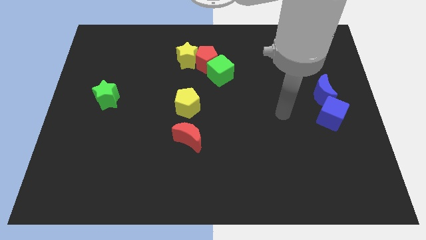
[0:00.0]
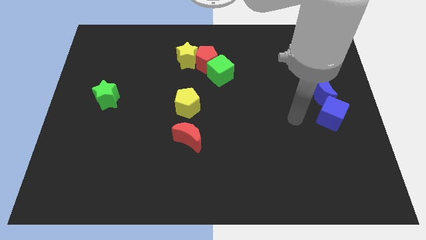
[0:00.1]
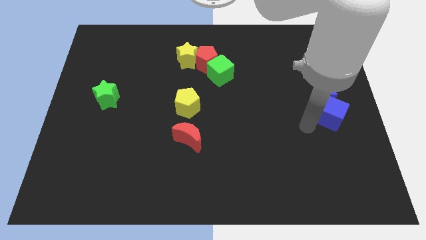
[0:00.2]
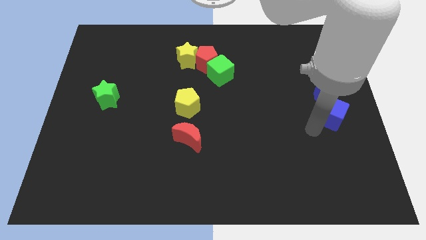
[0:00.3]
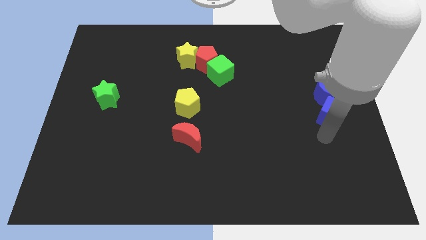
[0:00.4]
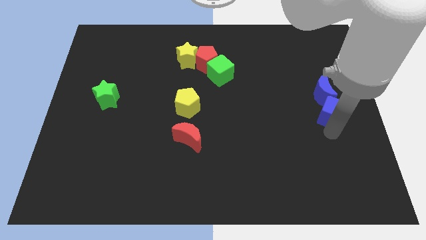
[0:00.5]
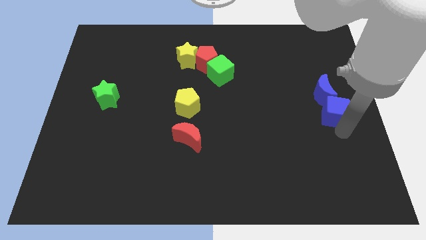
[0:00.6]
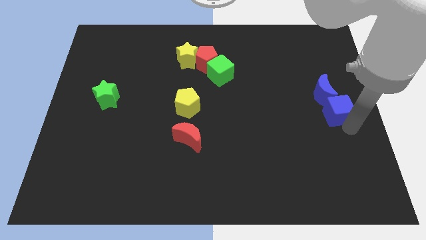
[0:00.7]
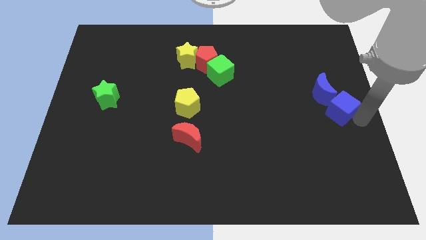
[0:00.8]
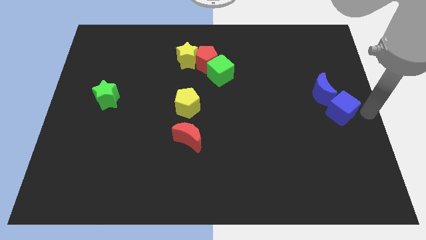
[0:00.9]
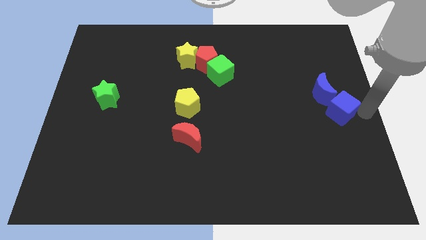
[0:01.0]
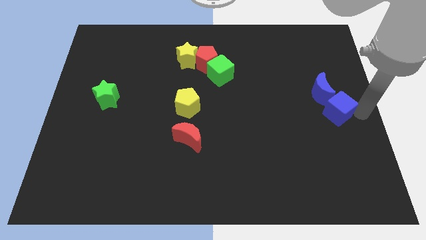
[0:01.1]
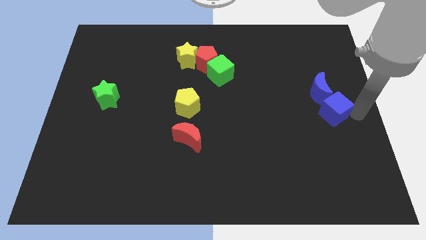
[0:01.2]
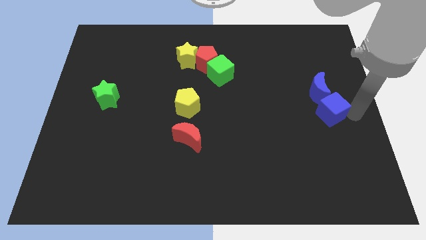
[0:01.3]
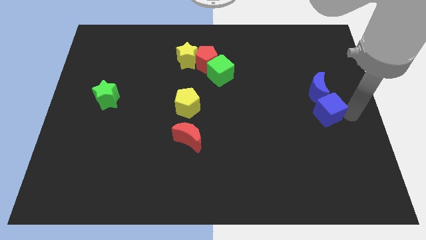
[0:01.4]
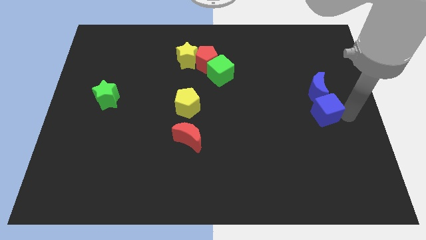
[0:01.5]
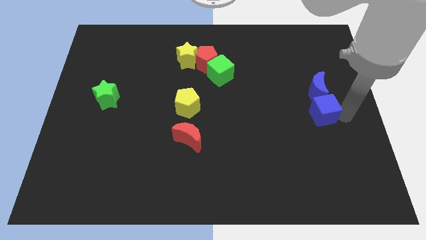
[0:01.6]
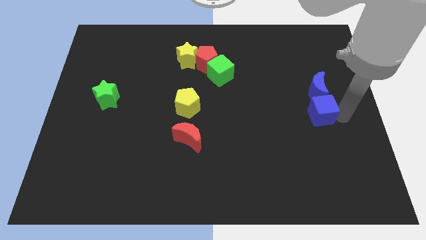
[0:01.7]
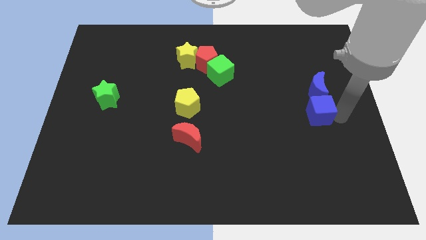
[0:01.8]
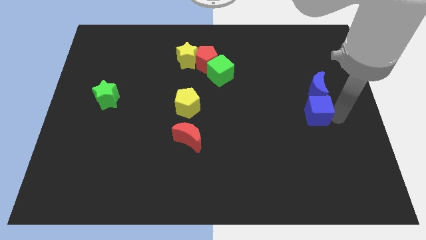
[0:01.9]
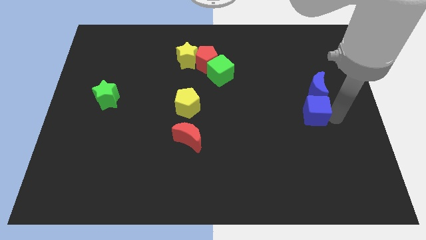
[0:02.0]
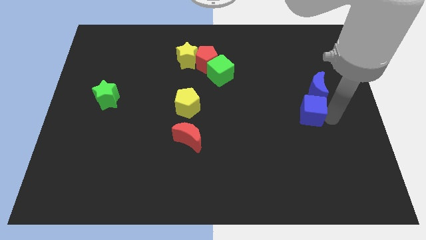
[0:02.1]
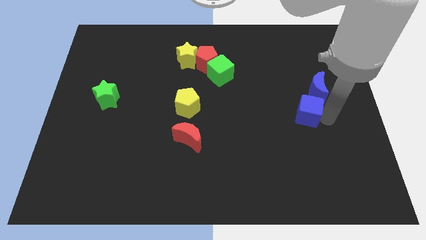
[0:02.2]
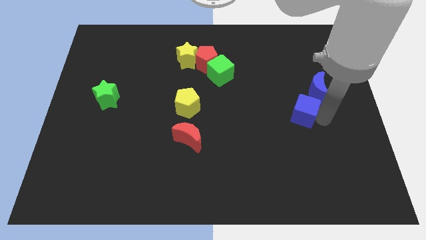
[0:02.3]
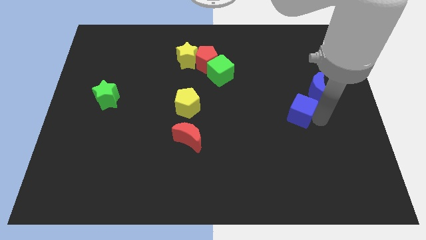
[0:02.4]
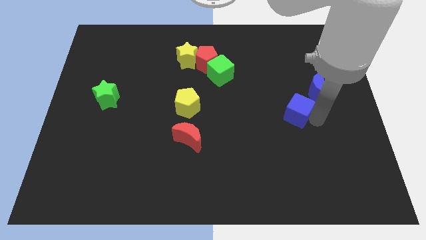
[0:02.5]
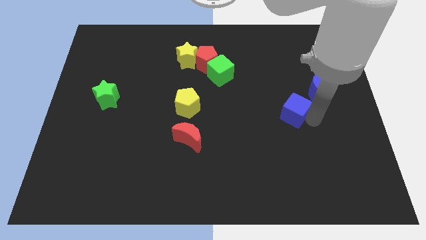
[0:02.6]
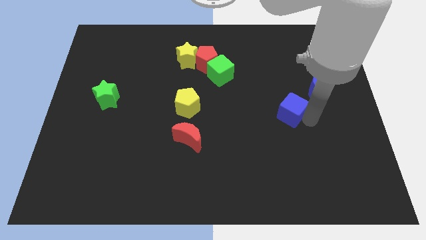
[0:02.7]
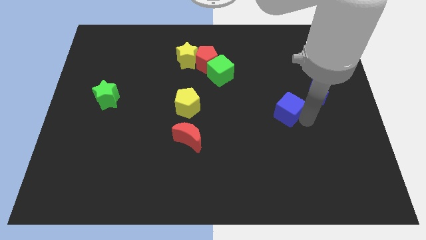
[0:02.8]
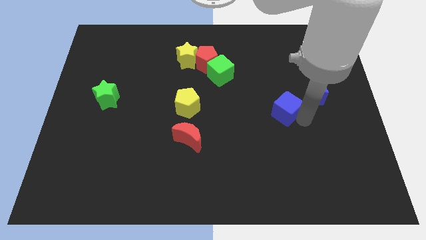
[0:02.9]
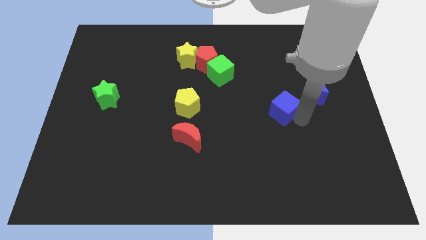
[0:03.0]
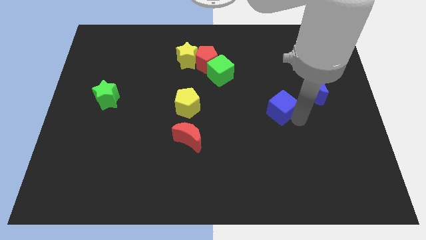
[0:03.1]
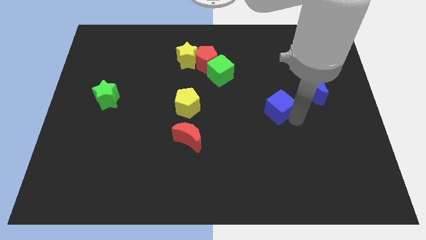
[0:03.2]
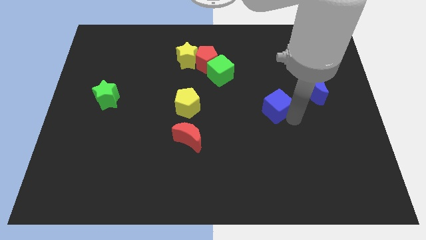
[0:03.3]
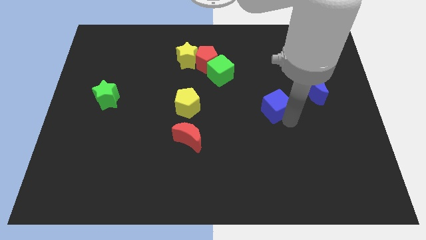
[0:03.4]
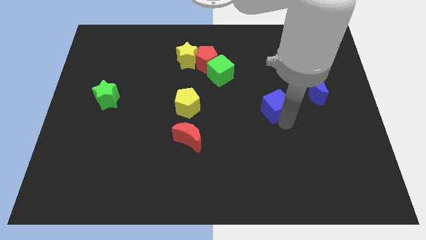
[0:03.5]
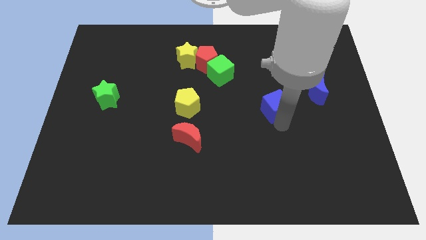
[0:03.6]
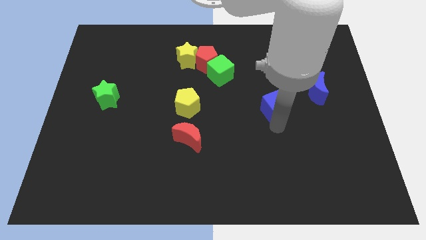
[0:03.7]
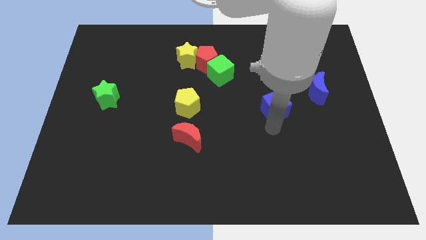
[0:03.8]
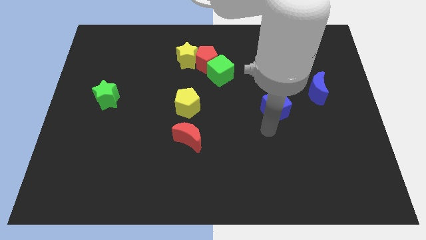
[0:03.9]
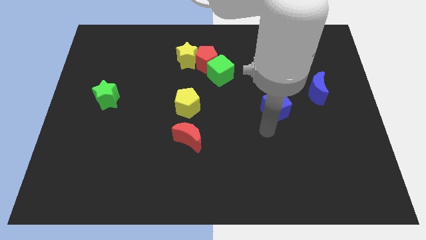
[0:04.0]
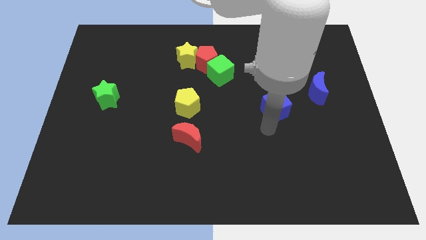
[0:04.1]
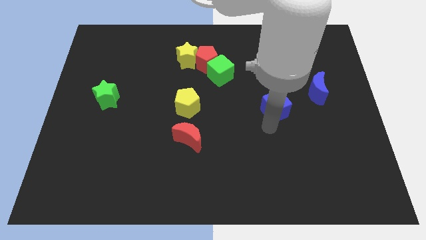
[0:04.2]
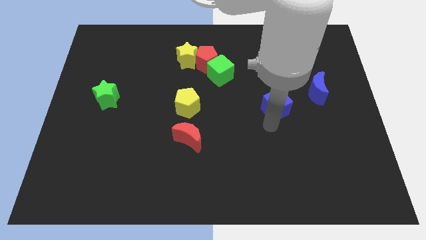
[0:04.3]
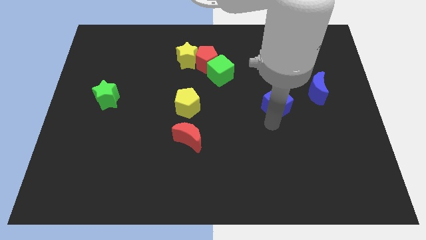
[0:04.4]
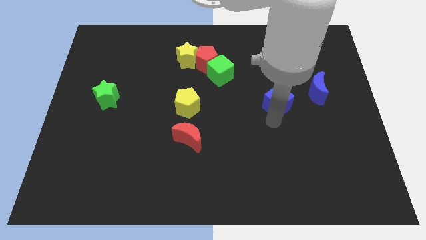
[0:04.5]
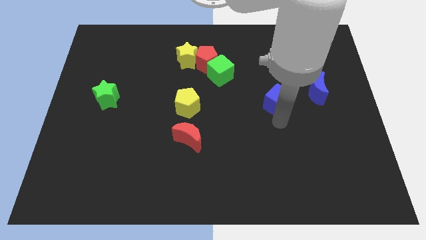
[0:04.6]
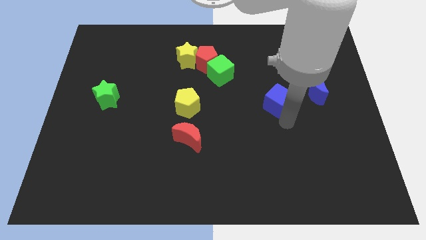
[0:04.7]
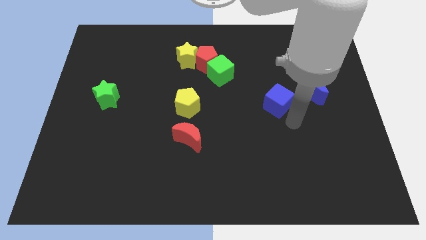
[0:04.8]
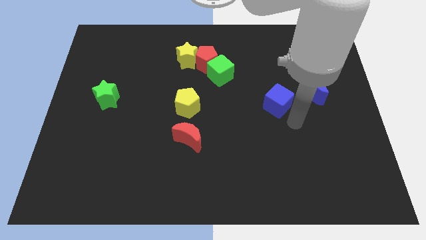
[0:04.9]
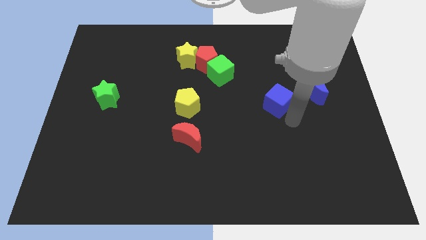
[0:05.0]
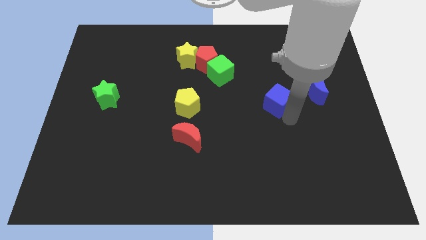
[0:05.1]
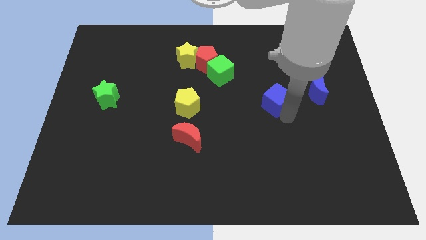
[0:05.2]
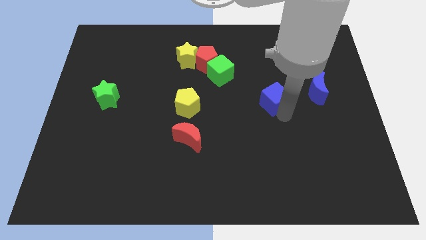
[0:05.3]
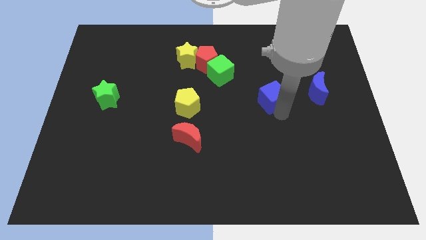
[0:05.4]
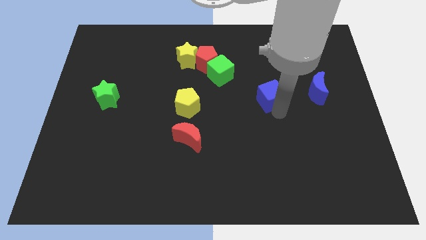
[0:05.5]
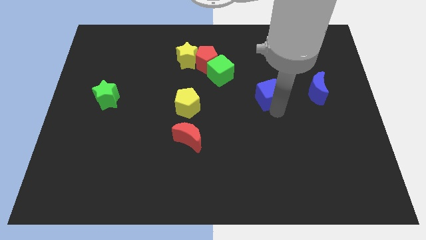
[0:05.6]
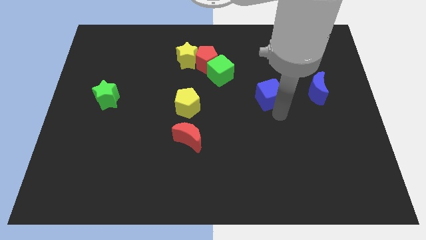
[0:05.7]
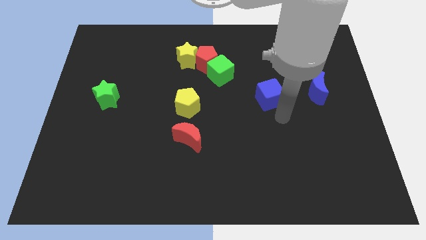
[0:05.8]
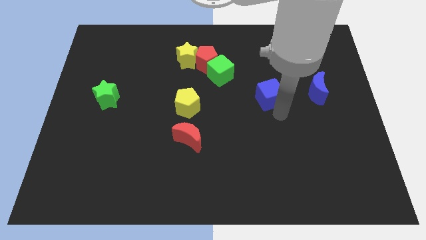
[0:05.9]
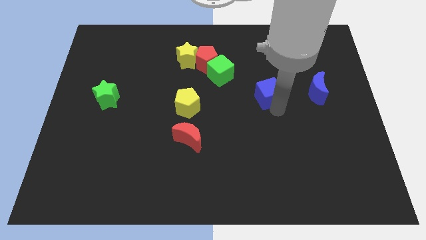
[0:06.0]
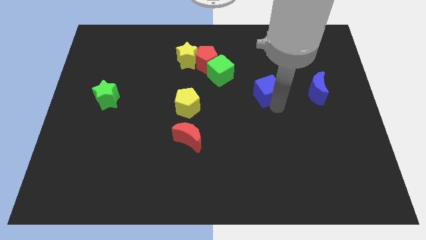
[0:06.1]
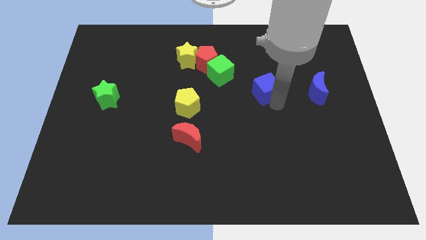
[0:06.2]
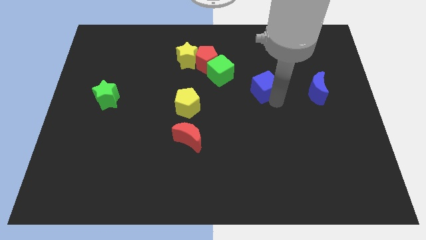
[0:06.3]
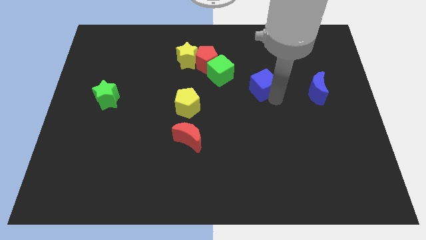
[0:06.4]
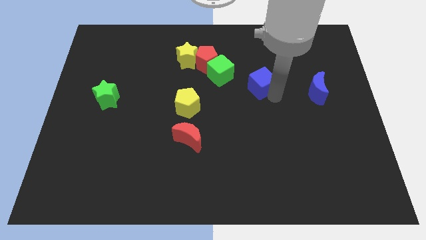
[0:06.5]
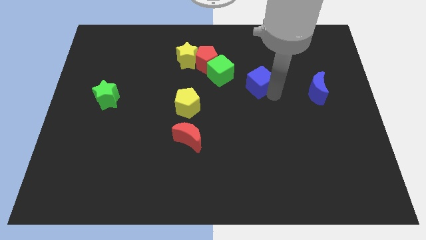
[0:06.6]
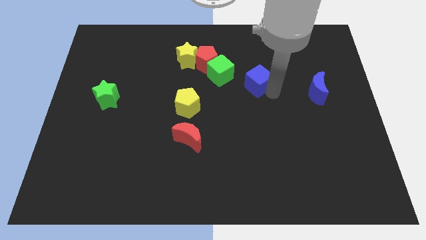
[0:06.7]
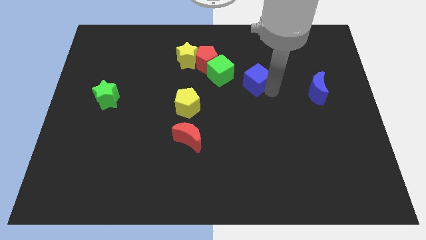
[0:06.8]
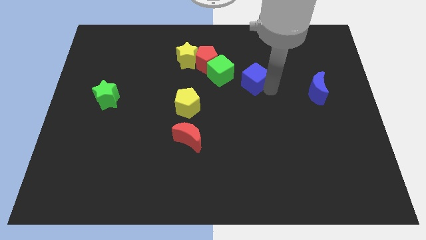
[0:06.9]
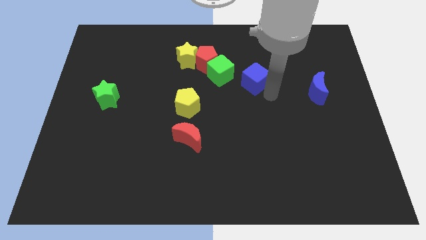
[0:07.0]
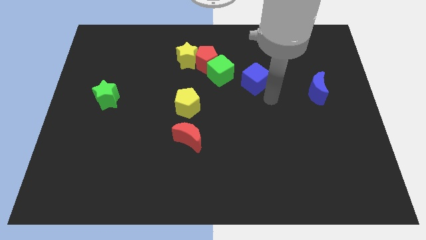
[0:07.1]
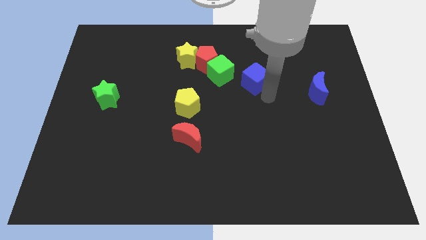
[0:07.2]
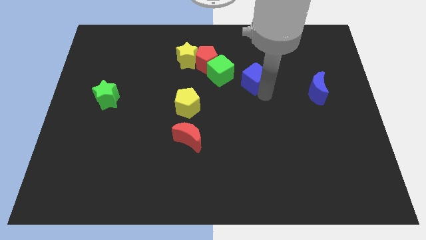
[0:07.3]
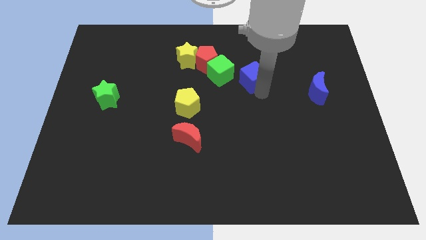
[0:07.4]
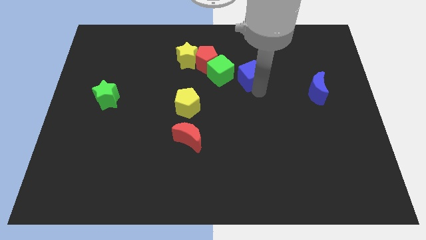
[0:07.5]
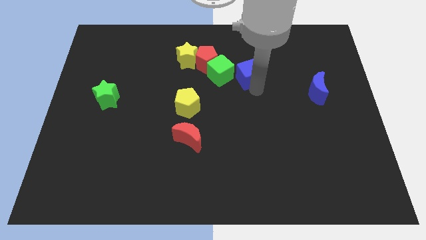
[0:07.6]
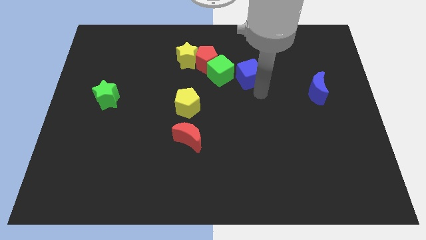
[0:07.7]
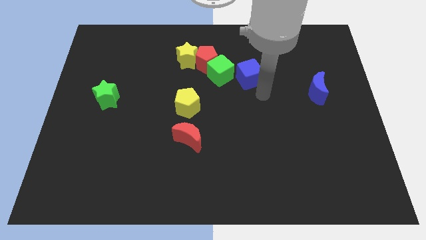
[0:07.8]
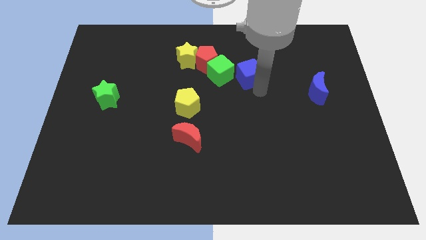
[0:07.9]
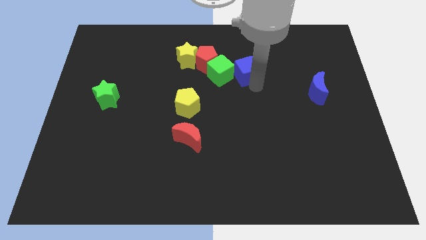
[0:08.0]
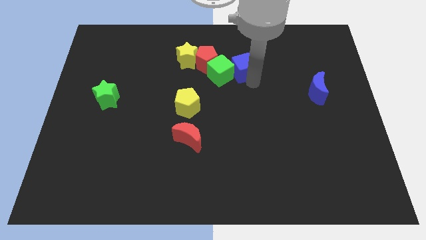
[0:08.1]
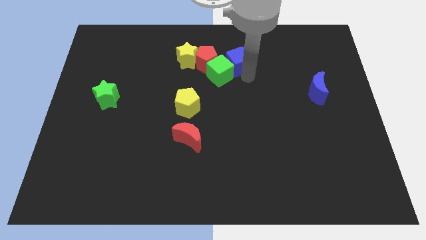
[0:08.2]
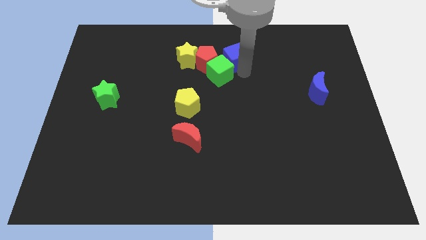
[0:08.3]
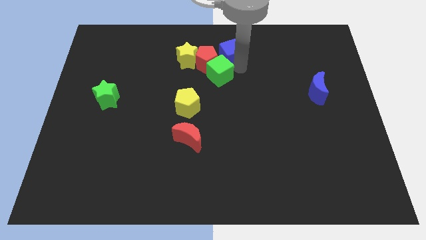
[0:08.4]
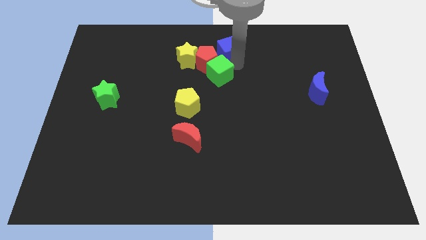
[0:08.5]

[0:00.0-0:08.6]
slide the blue cube to the top
